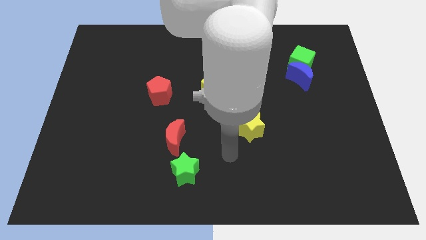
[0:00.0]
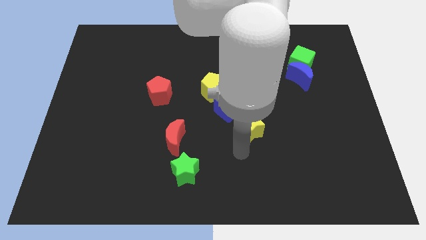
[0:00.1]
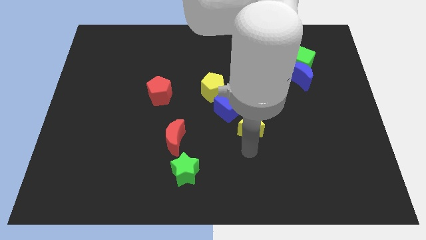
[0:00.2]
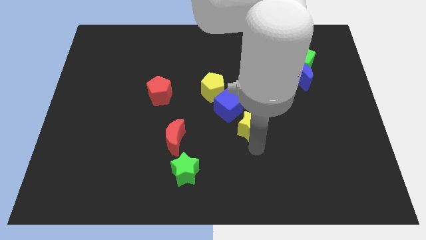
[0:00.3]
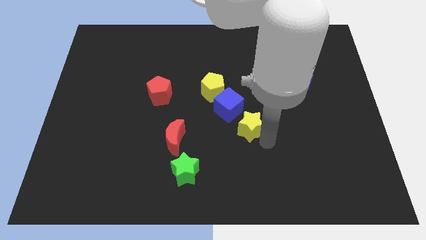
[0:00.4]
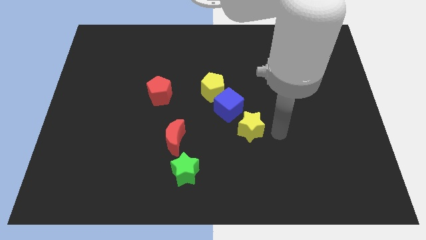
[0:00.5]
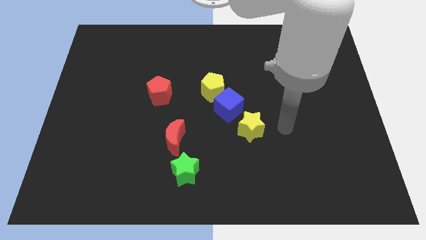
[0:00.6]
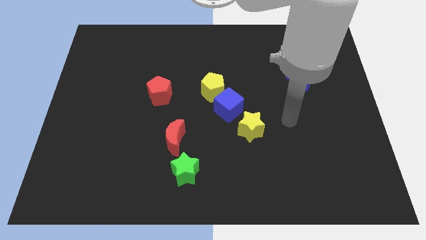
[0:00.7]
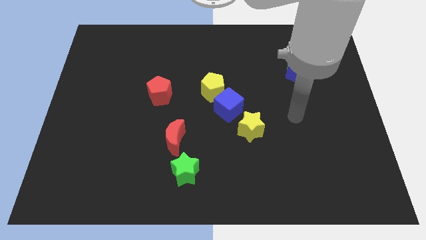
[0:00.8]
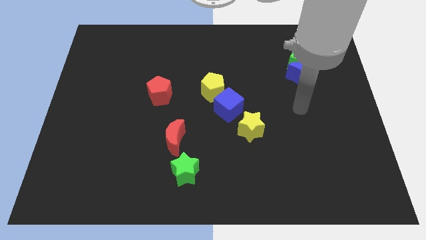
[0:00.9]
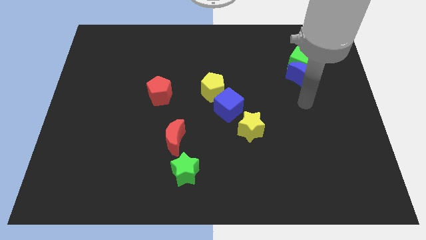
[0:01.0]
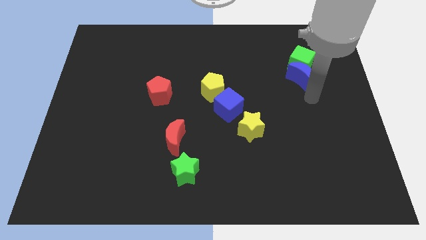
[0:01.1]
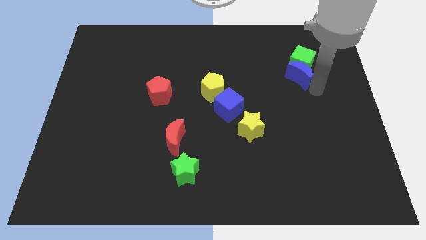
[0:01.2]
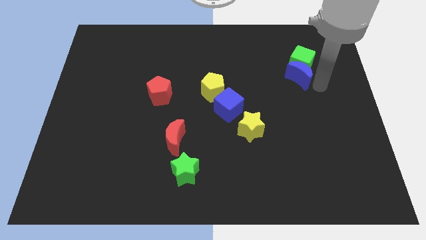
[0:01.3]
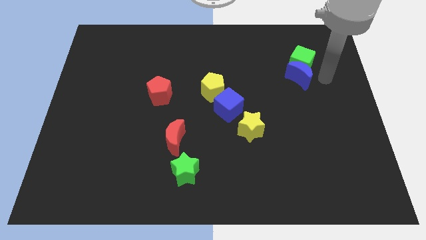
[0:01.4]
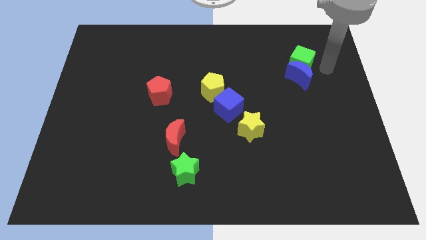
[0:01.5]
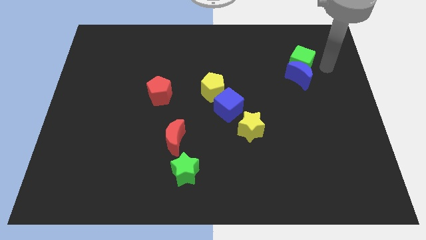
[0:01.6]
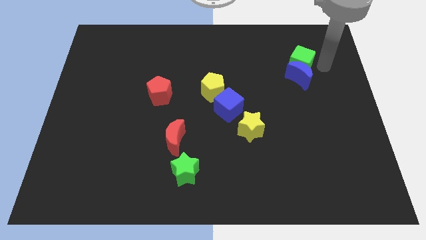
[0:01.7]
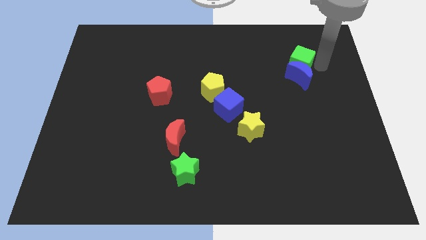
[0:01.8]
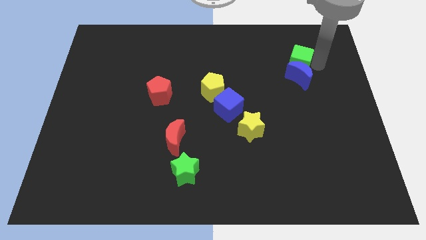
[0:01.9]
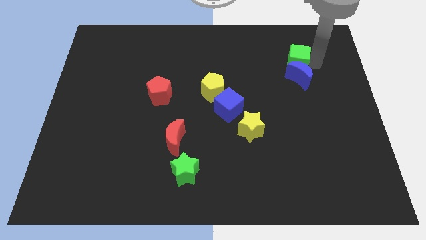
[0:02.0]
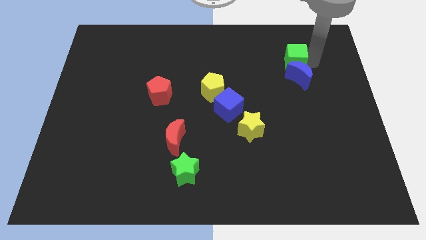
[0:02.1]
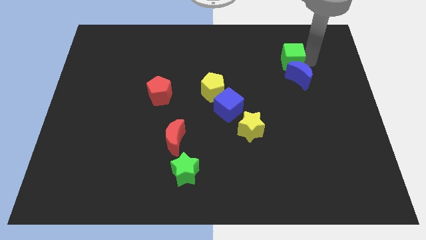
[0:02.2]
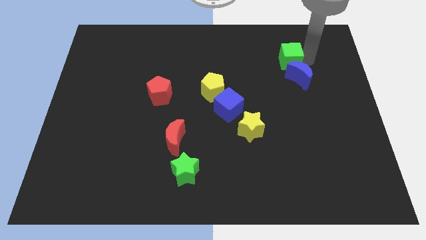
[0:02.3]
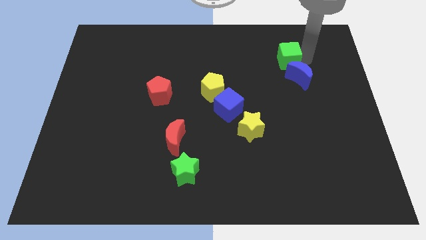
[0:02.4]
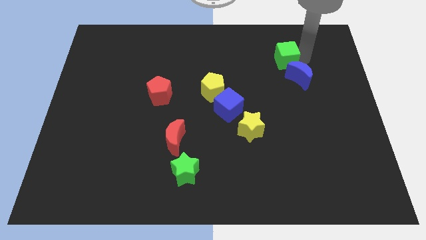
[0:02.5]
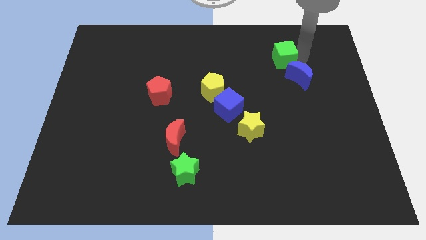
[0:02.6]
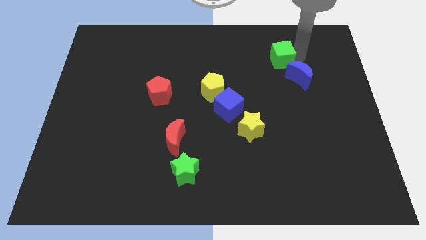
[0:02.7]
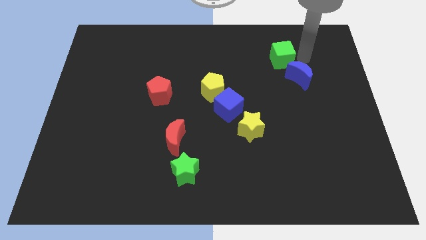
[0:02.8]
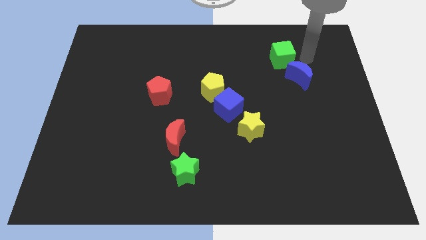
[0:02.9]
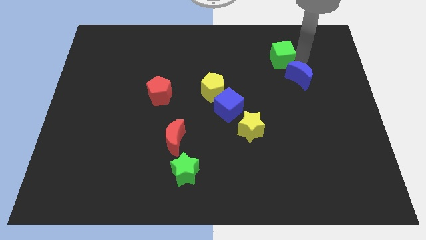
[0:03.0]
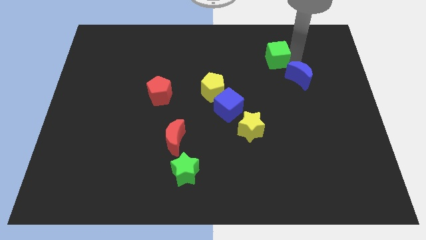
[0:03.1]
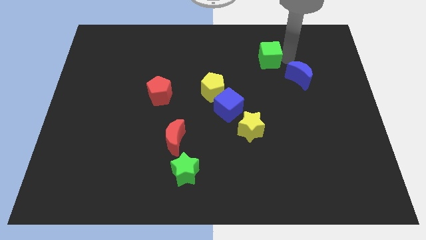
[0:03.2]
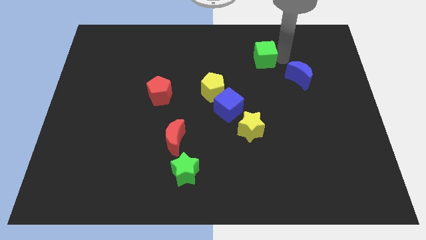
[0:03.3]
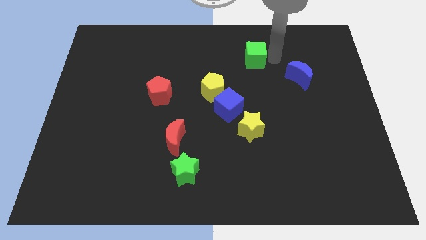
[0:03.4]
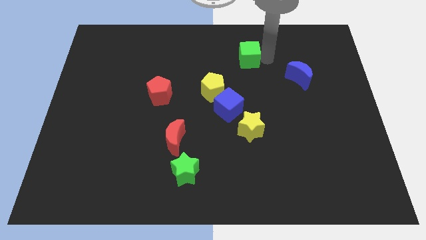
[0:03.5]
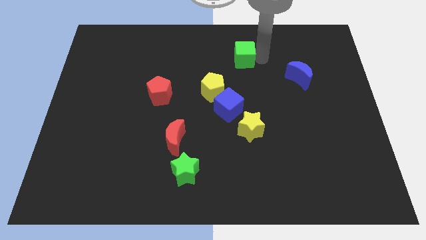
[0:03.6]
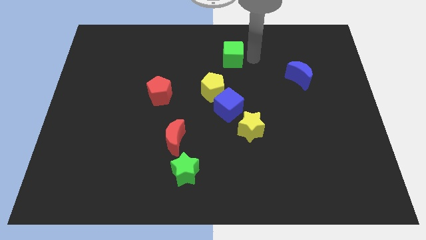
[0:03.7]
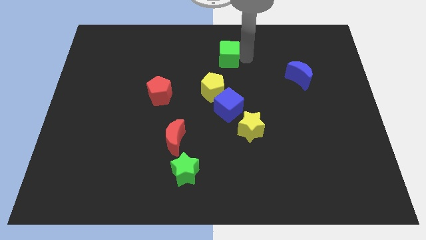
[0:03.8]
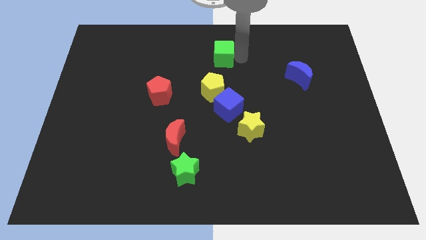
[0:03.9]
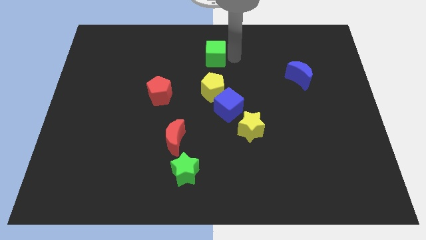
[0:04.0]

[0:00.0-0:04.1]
slide the green cube left

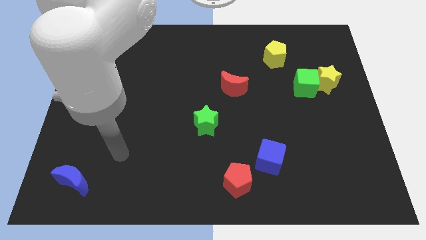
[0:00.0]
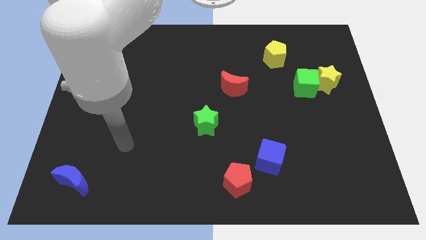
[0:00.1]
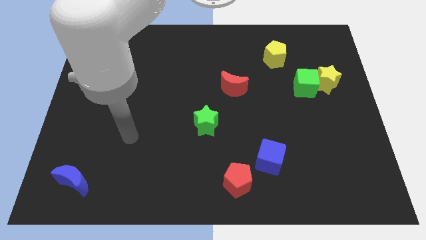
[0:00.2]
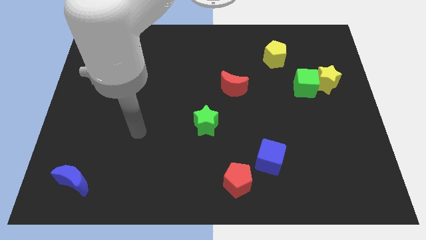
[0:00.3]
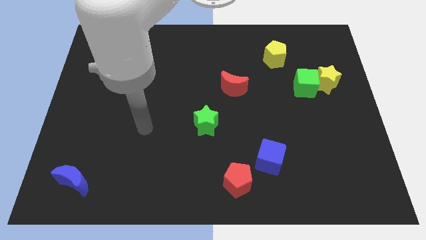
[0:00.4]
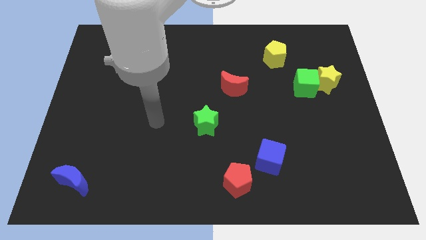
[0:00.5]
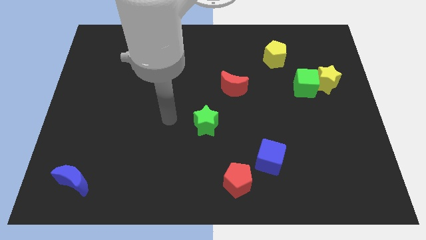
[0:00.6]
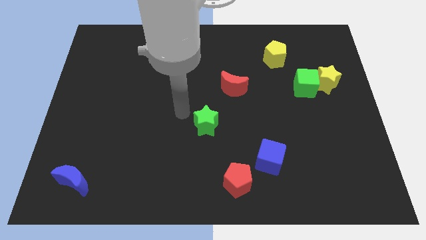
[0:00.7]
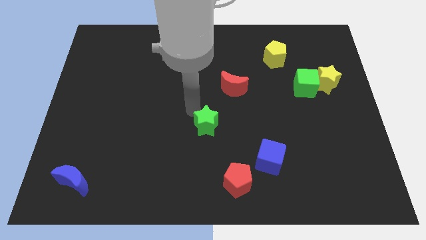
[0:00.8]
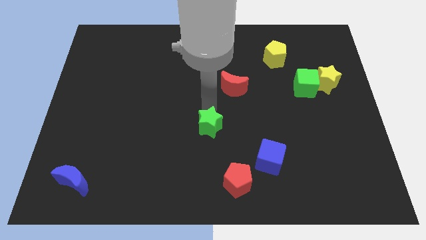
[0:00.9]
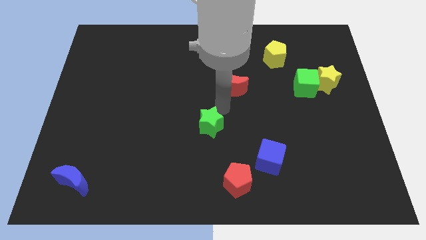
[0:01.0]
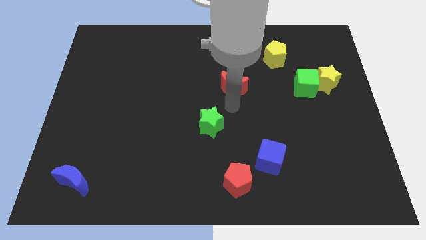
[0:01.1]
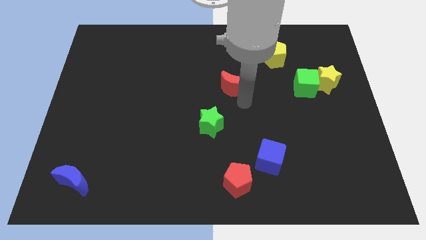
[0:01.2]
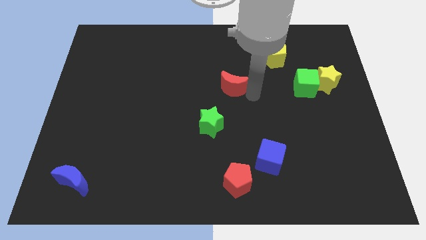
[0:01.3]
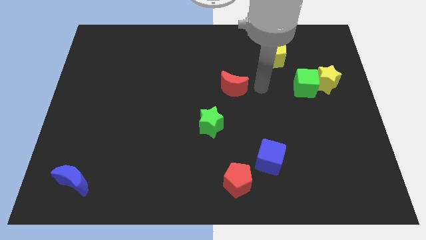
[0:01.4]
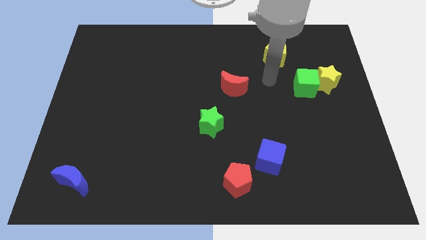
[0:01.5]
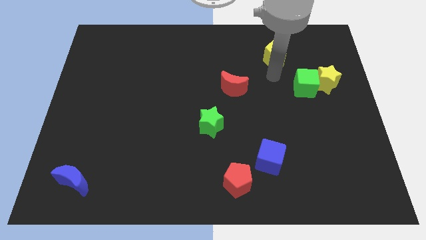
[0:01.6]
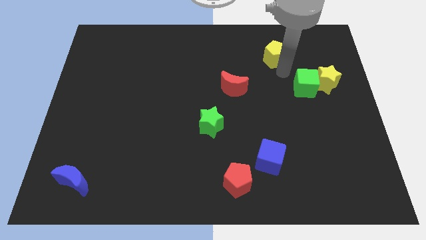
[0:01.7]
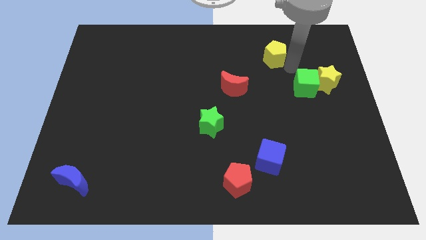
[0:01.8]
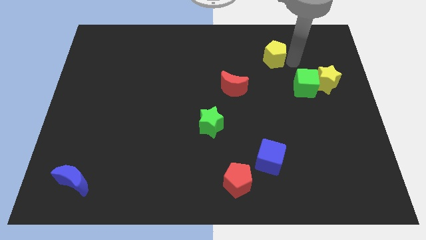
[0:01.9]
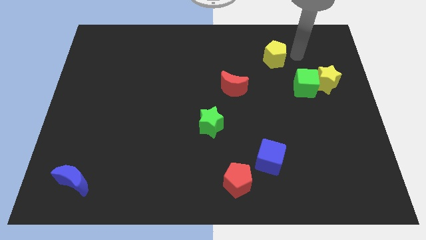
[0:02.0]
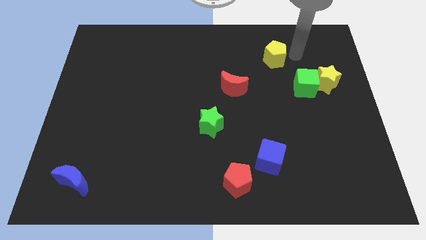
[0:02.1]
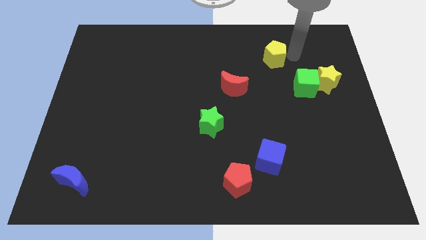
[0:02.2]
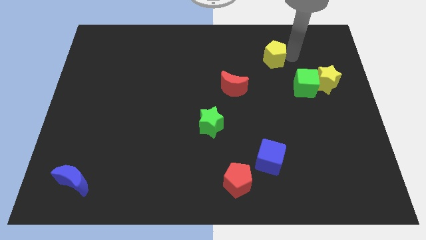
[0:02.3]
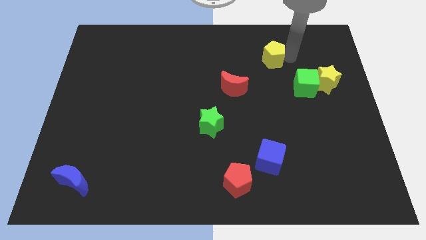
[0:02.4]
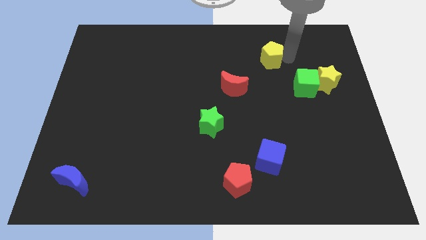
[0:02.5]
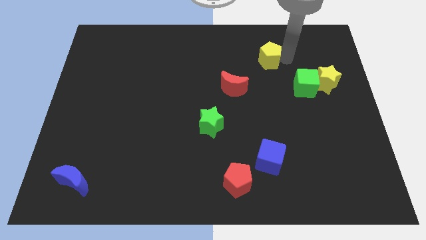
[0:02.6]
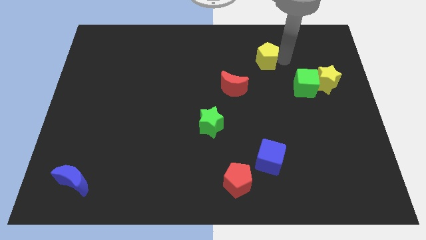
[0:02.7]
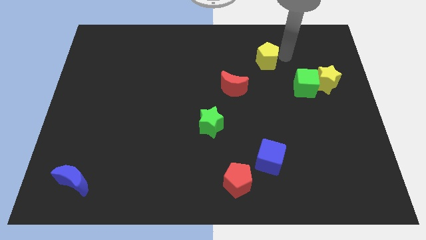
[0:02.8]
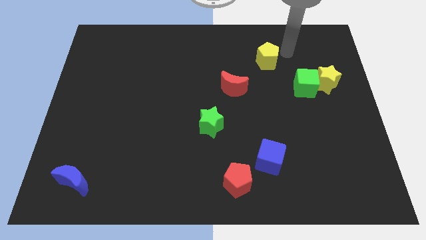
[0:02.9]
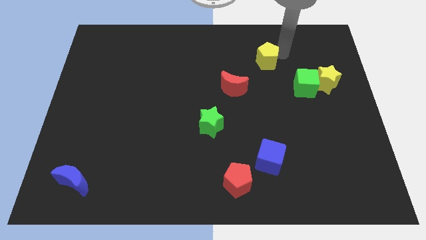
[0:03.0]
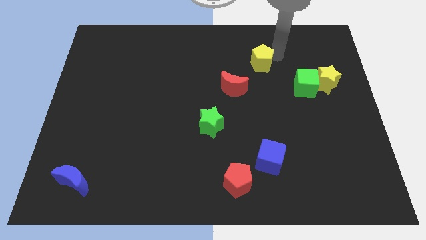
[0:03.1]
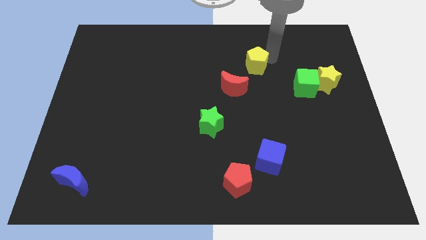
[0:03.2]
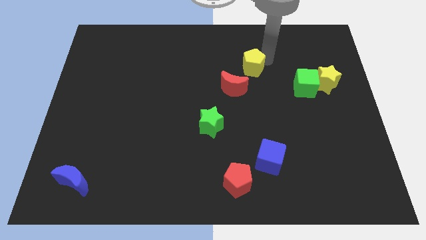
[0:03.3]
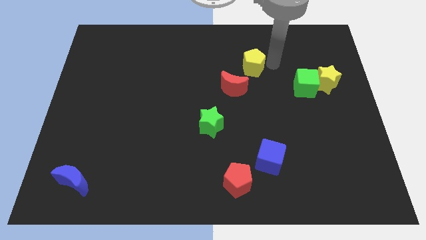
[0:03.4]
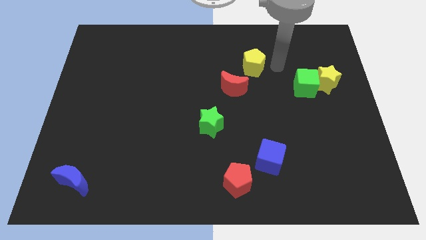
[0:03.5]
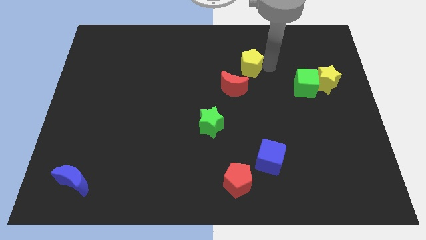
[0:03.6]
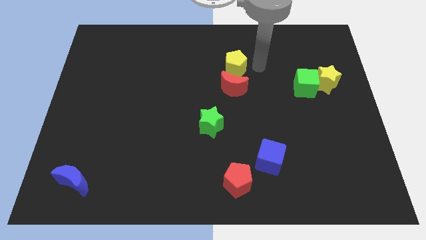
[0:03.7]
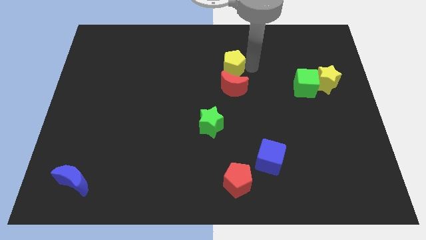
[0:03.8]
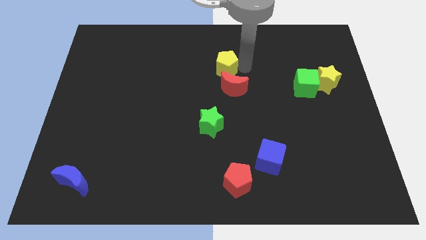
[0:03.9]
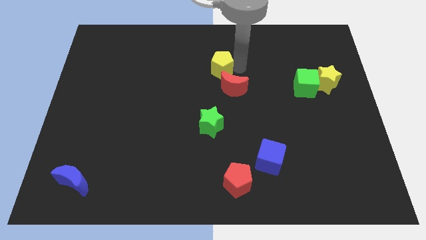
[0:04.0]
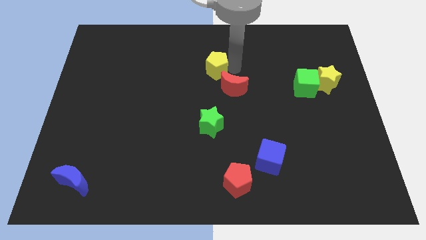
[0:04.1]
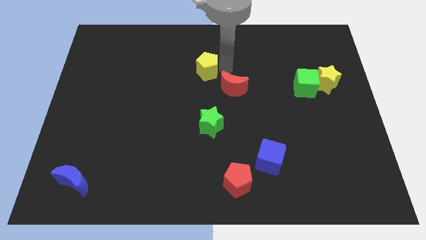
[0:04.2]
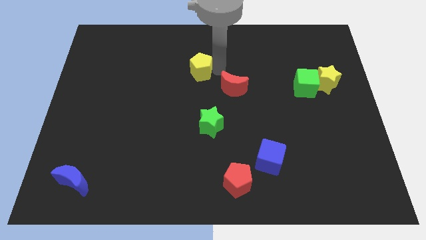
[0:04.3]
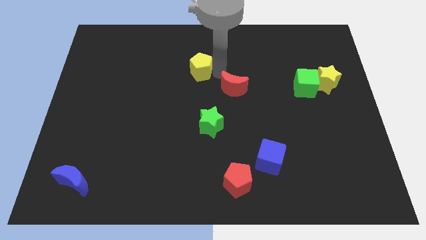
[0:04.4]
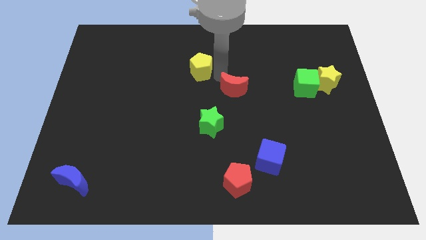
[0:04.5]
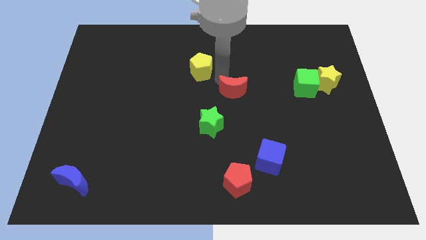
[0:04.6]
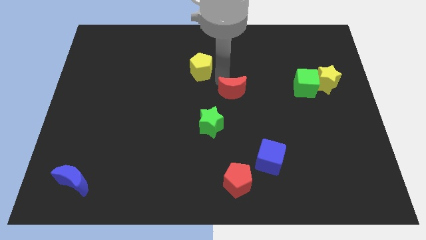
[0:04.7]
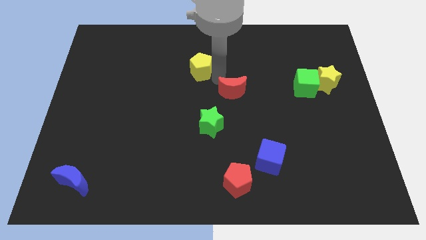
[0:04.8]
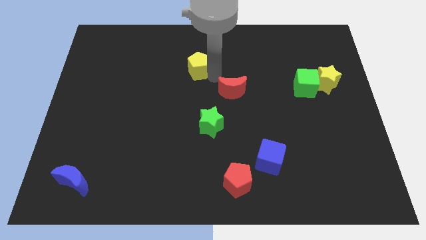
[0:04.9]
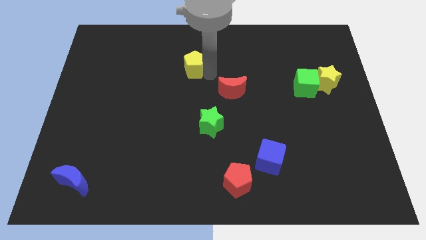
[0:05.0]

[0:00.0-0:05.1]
move the yellow pentagon to the left
